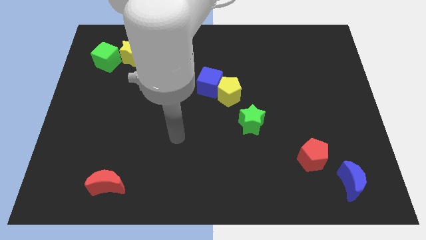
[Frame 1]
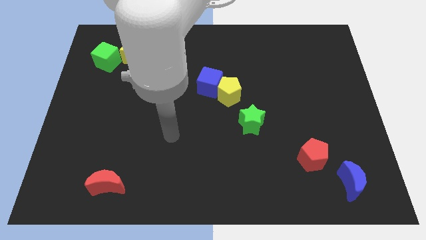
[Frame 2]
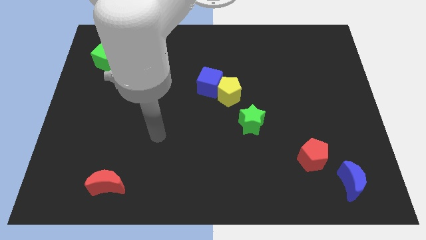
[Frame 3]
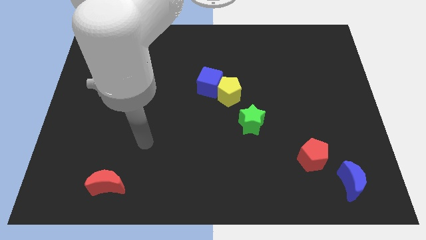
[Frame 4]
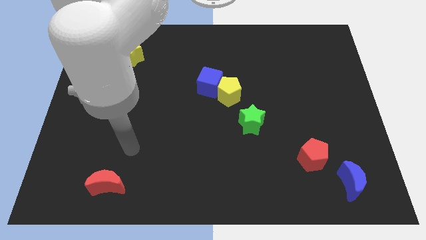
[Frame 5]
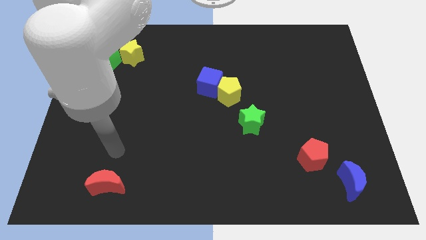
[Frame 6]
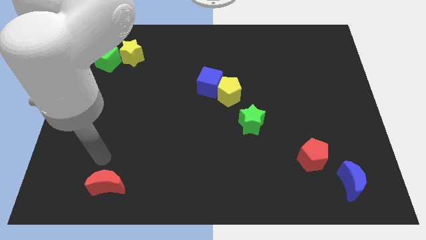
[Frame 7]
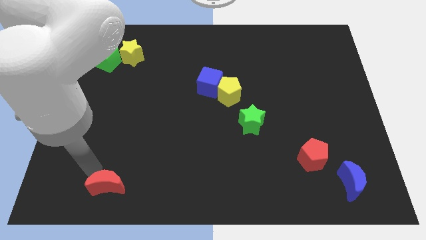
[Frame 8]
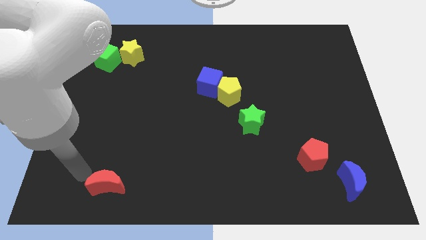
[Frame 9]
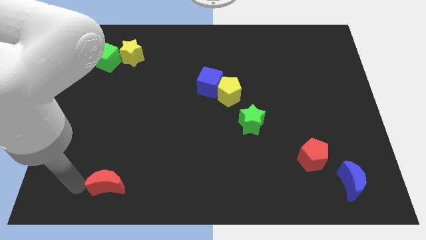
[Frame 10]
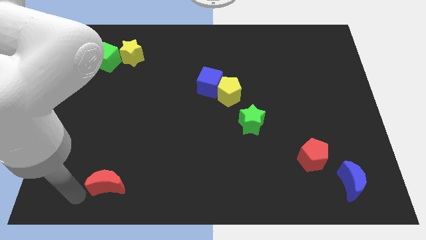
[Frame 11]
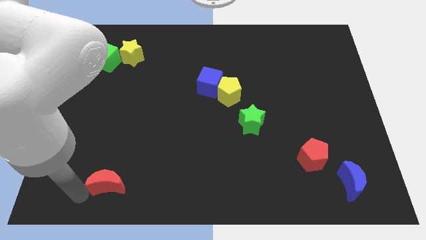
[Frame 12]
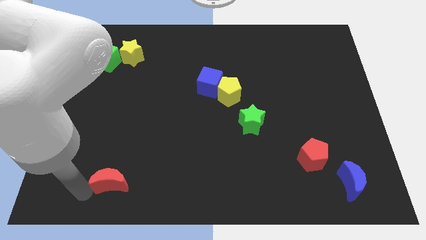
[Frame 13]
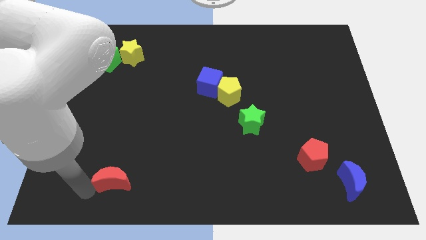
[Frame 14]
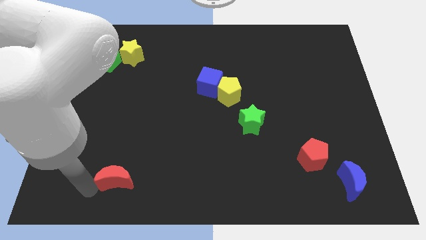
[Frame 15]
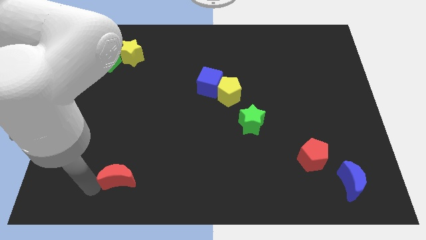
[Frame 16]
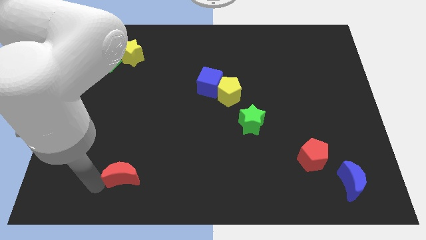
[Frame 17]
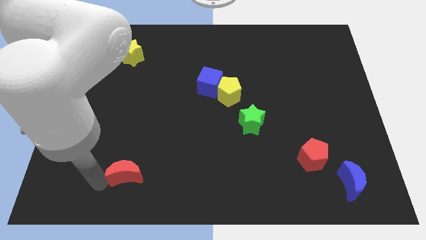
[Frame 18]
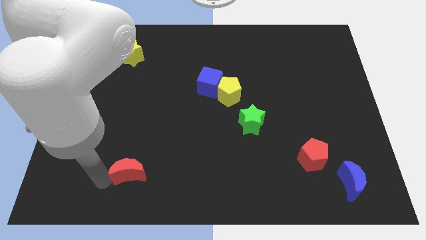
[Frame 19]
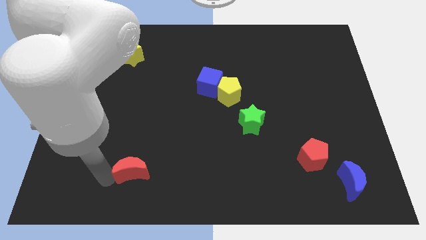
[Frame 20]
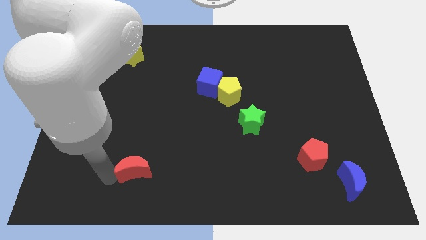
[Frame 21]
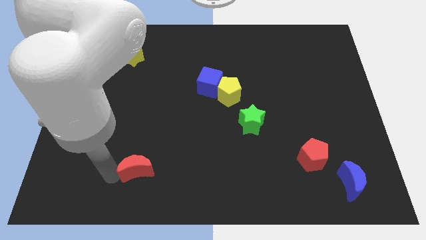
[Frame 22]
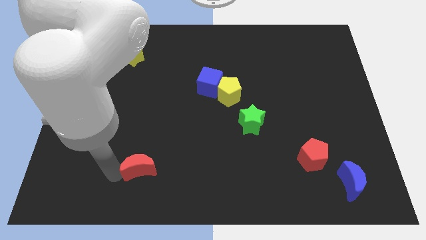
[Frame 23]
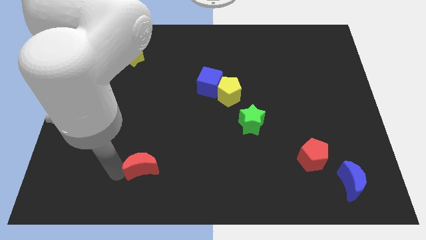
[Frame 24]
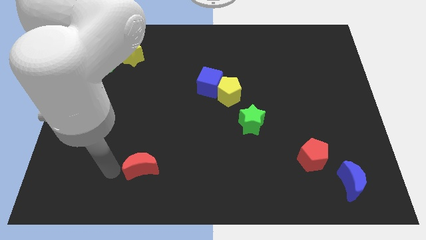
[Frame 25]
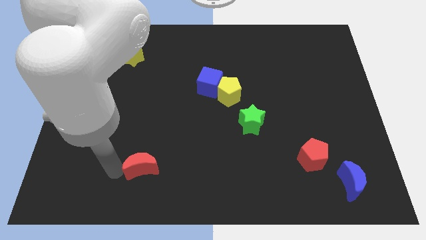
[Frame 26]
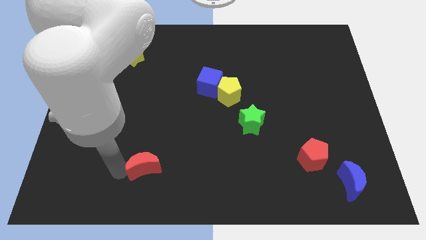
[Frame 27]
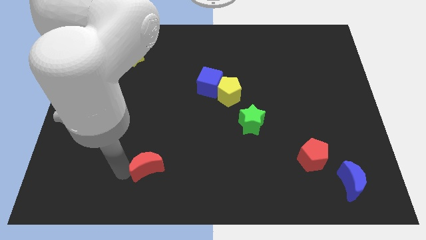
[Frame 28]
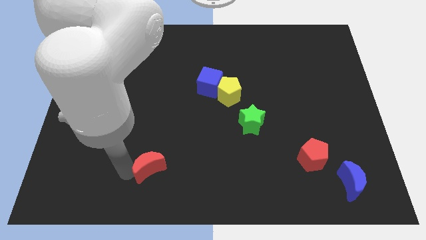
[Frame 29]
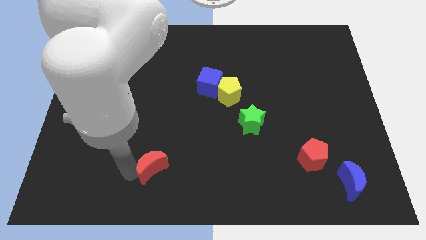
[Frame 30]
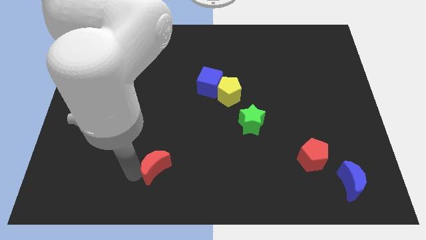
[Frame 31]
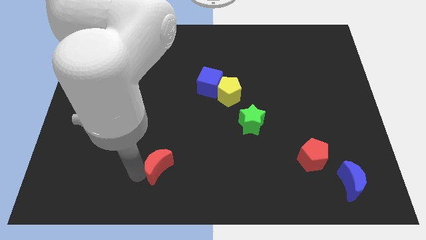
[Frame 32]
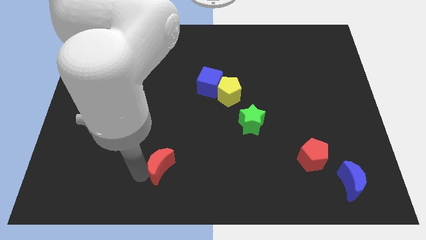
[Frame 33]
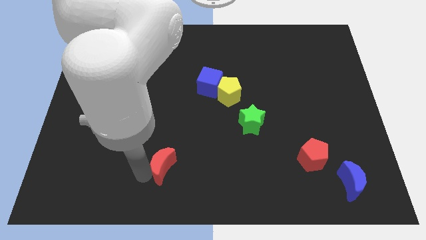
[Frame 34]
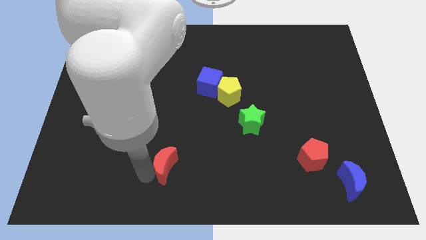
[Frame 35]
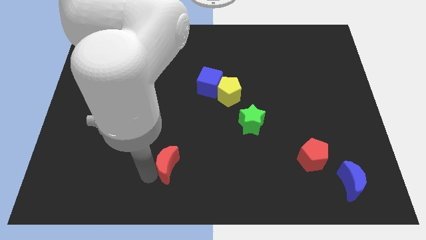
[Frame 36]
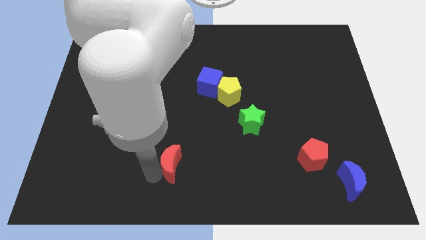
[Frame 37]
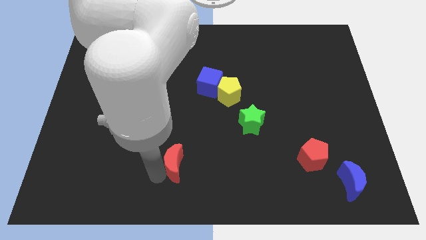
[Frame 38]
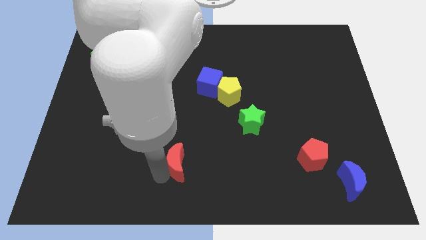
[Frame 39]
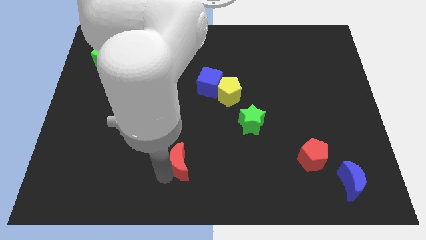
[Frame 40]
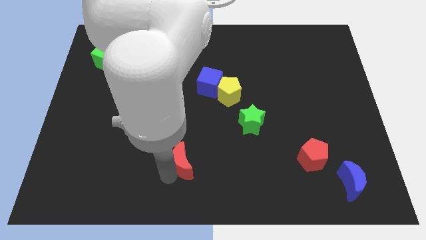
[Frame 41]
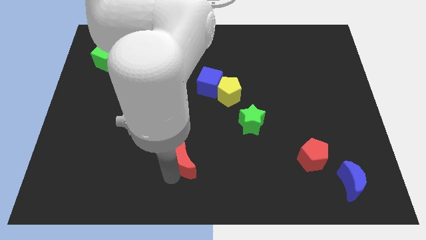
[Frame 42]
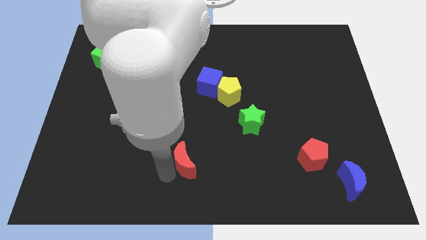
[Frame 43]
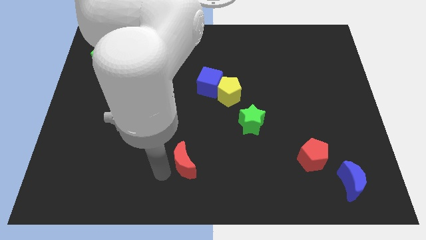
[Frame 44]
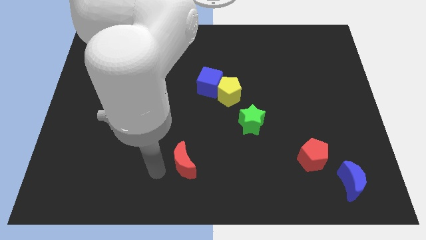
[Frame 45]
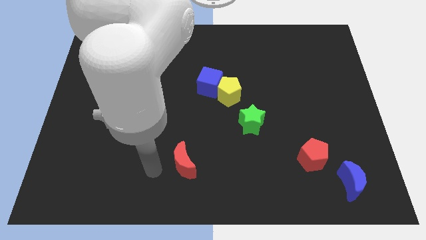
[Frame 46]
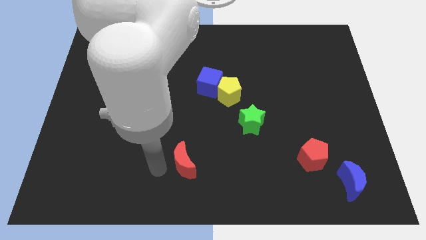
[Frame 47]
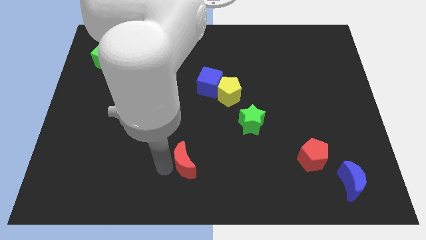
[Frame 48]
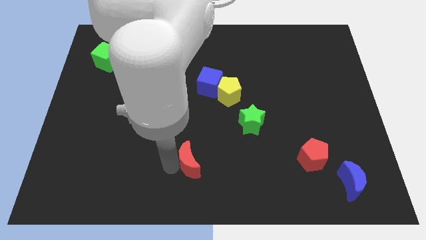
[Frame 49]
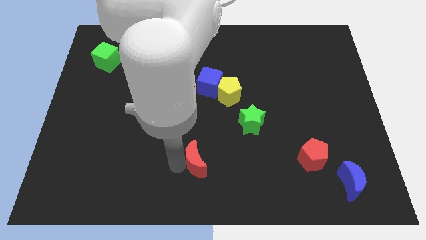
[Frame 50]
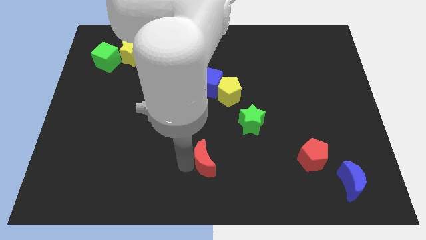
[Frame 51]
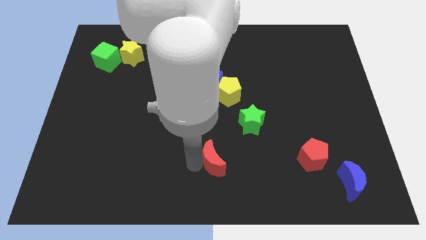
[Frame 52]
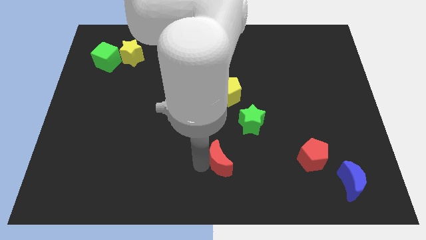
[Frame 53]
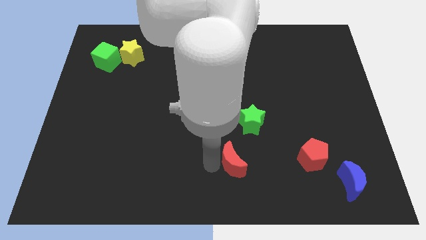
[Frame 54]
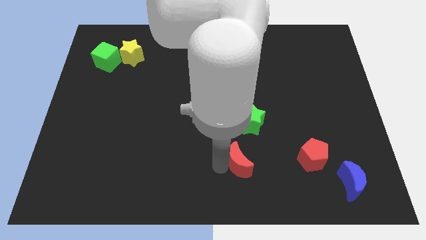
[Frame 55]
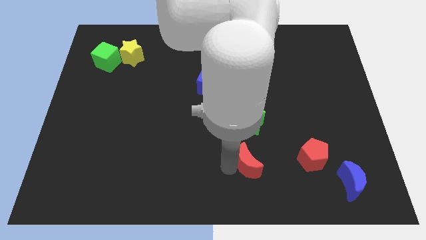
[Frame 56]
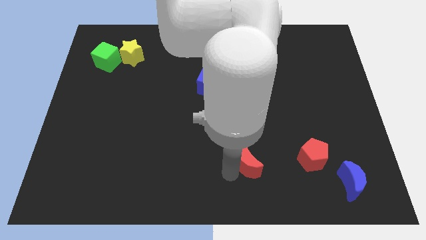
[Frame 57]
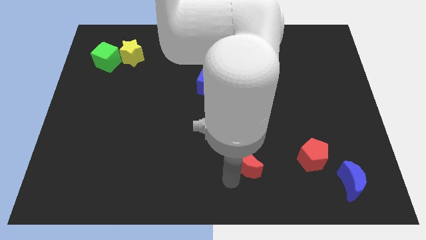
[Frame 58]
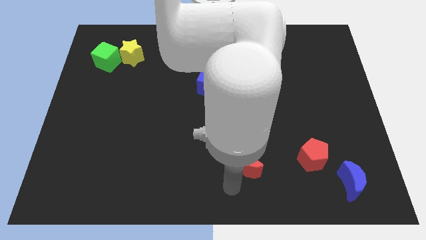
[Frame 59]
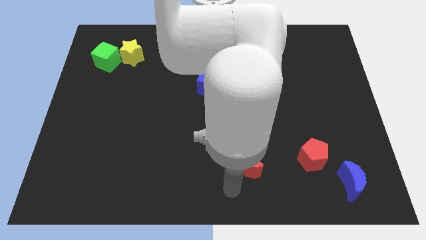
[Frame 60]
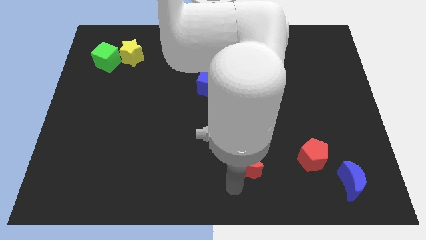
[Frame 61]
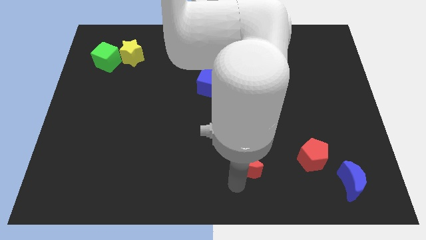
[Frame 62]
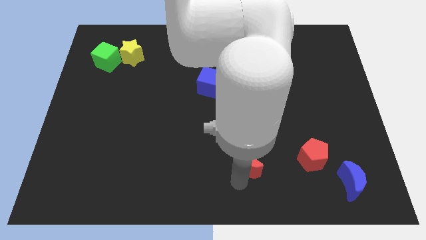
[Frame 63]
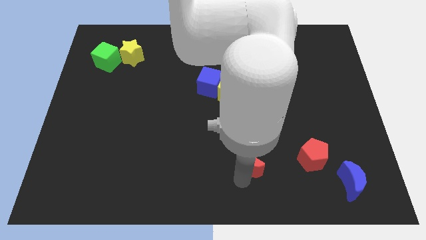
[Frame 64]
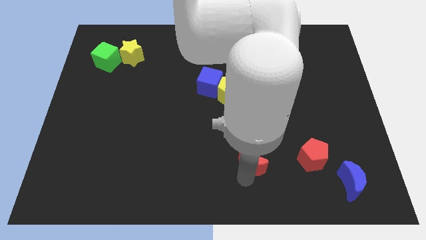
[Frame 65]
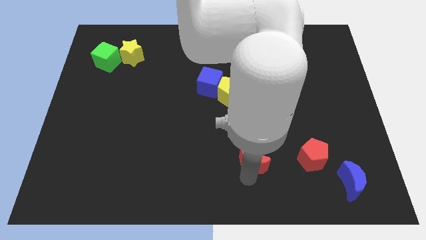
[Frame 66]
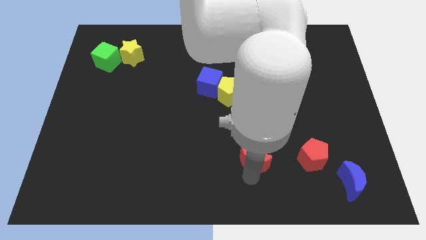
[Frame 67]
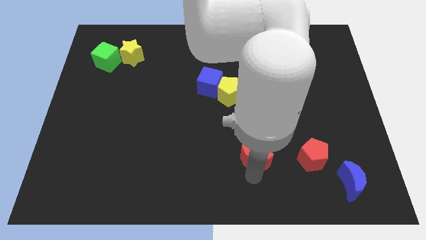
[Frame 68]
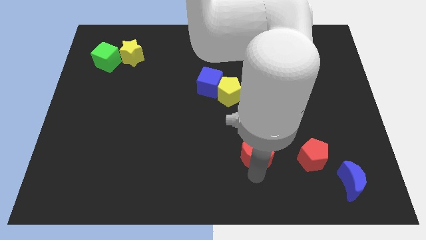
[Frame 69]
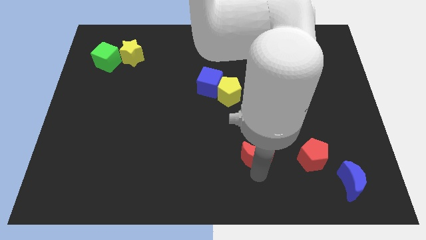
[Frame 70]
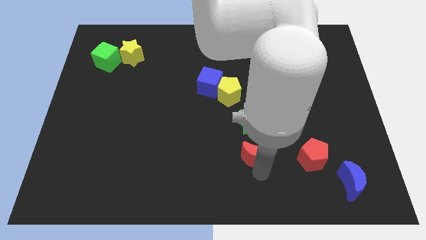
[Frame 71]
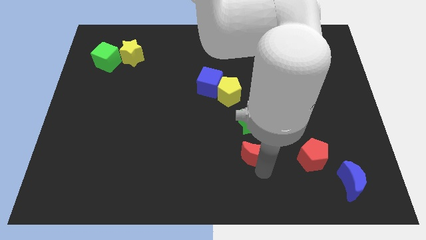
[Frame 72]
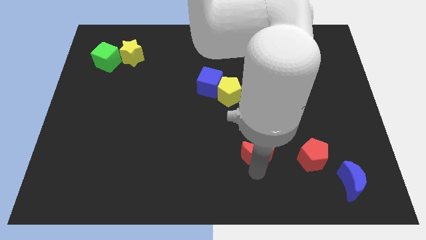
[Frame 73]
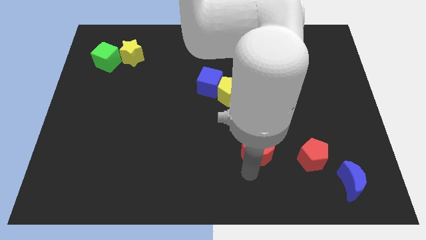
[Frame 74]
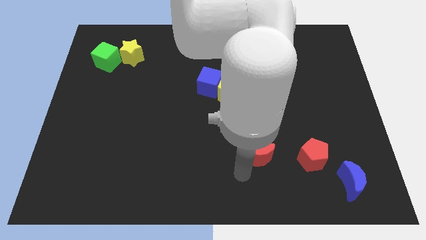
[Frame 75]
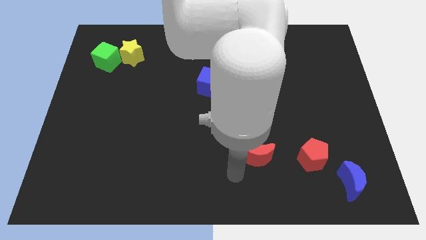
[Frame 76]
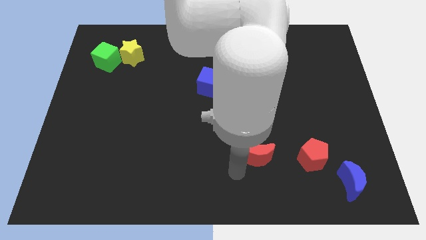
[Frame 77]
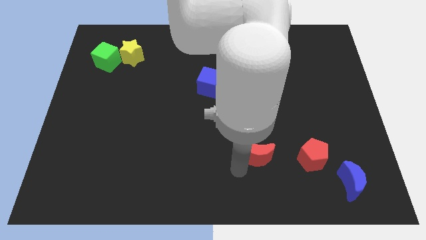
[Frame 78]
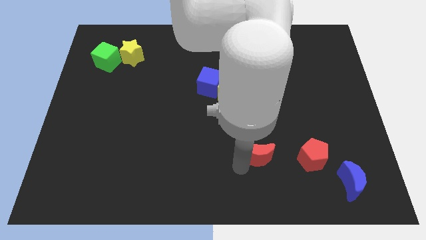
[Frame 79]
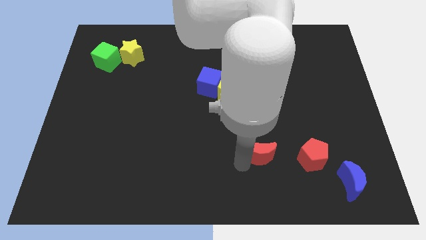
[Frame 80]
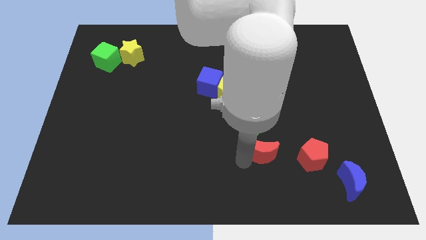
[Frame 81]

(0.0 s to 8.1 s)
move the red moon to the bottom right side of the green star
